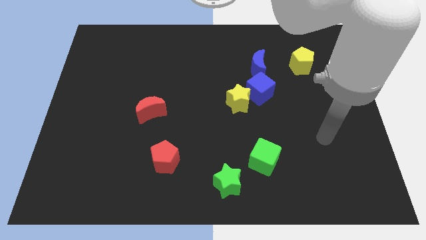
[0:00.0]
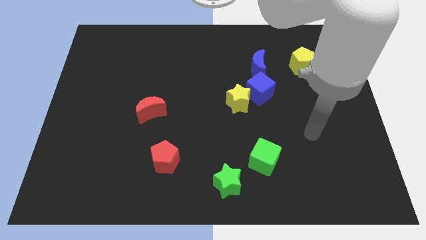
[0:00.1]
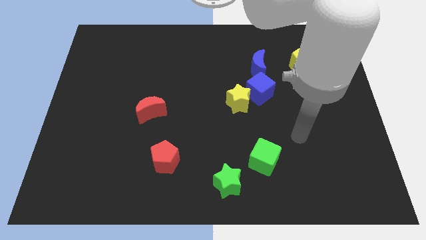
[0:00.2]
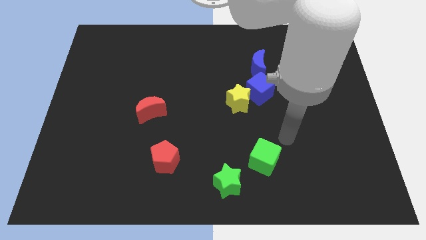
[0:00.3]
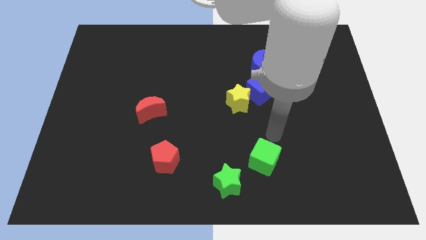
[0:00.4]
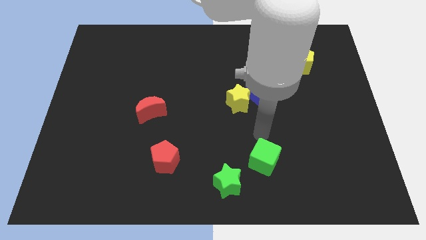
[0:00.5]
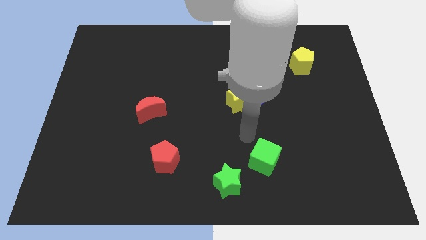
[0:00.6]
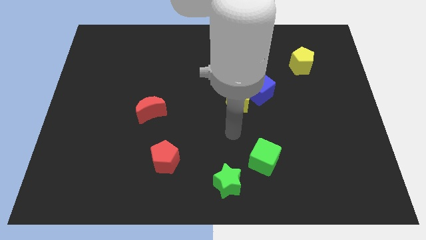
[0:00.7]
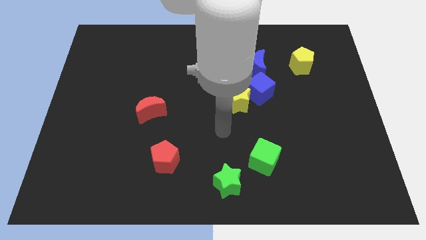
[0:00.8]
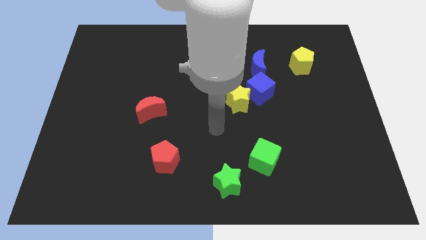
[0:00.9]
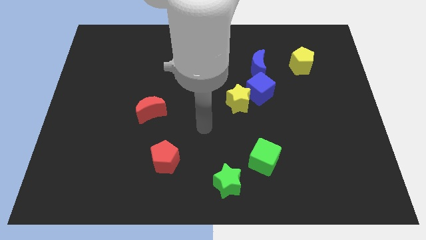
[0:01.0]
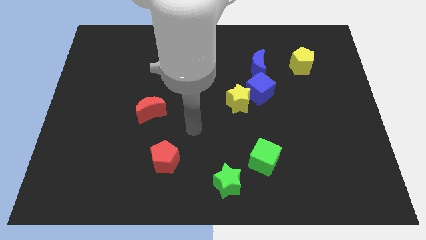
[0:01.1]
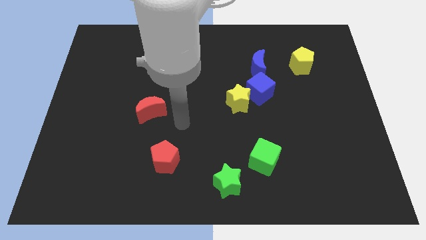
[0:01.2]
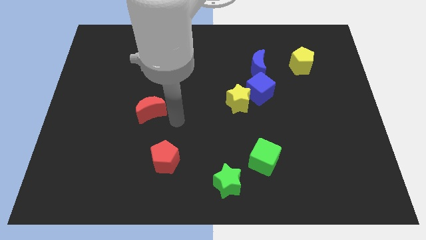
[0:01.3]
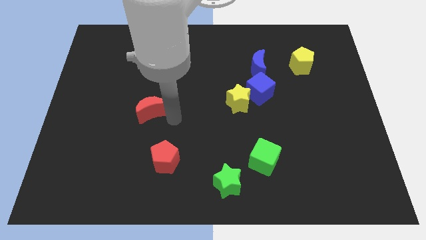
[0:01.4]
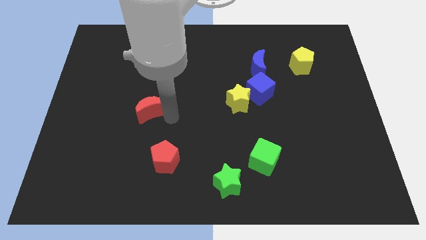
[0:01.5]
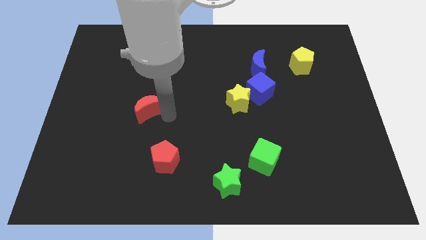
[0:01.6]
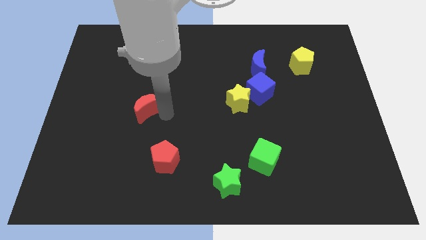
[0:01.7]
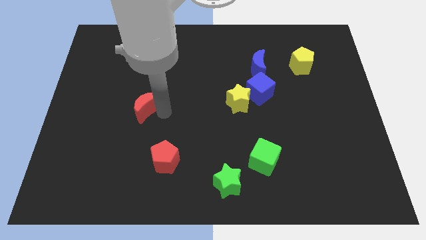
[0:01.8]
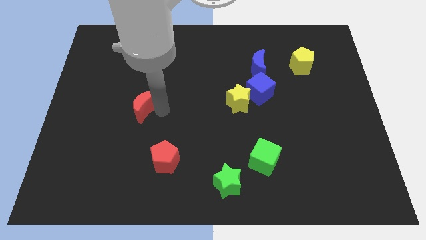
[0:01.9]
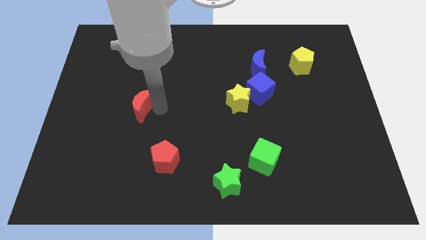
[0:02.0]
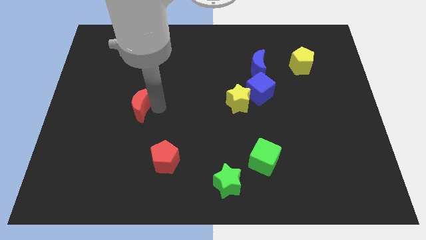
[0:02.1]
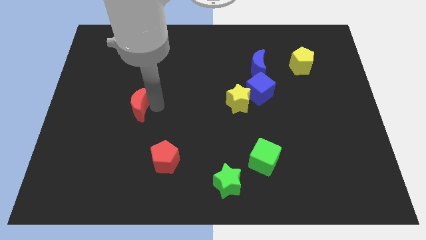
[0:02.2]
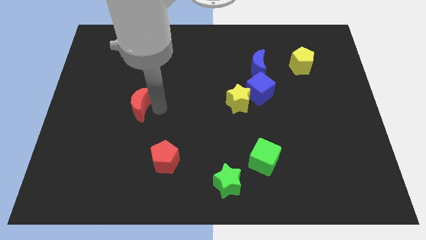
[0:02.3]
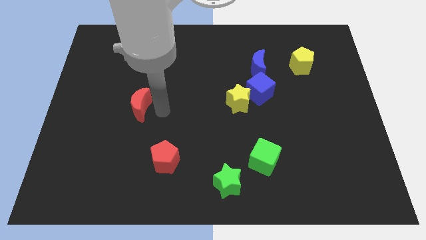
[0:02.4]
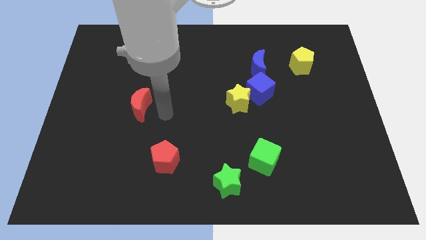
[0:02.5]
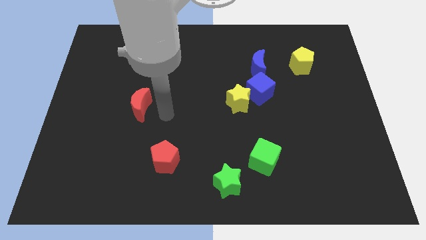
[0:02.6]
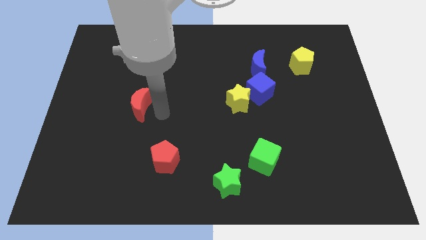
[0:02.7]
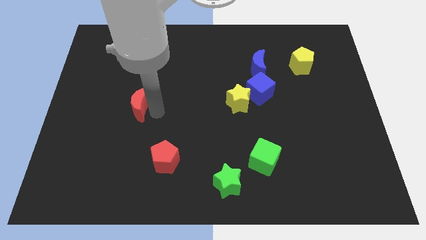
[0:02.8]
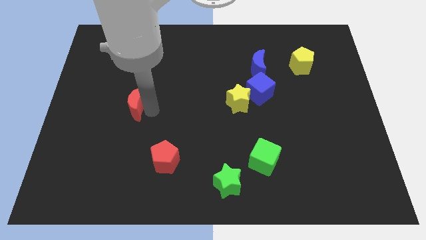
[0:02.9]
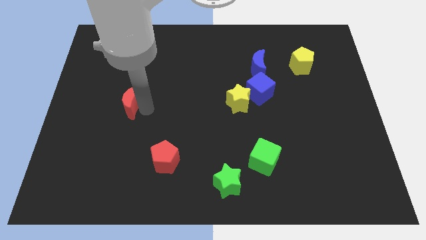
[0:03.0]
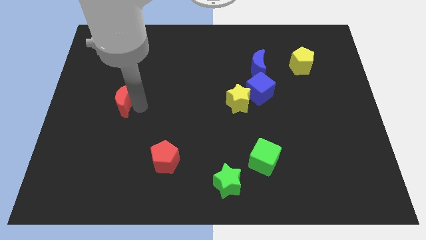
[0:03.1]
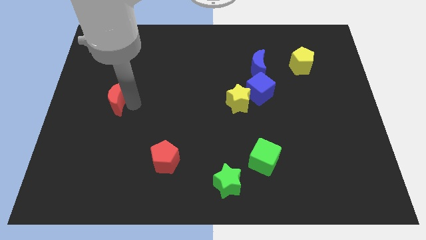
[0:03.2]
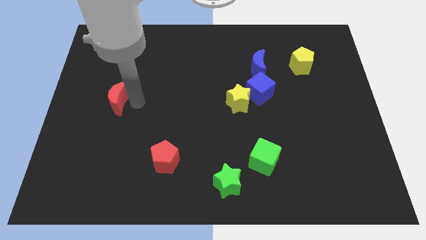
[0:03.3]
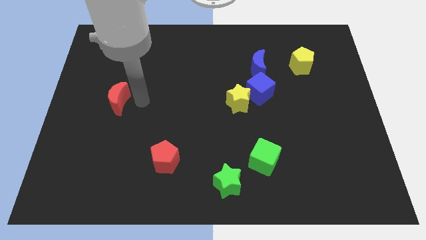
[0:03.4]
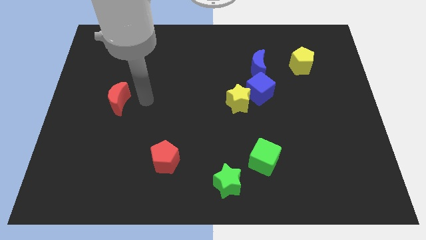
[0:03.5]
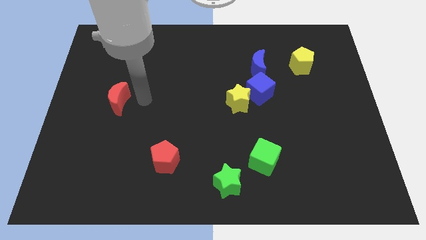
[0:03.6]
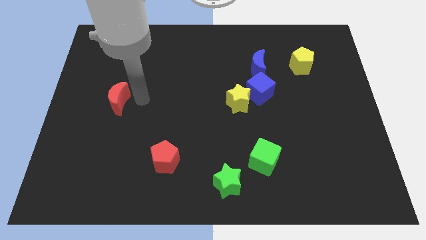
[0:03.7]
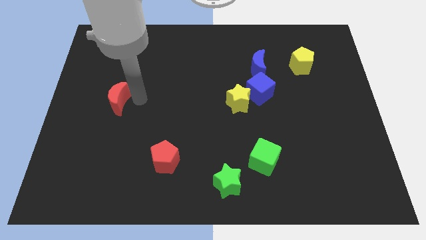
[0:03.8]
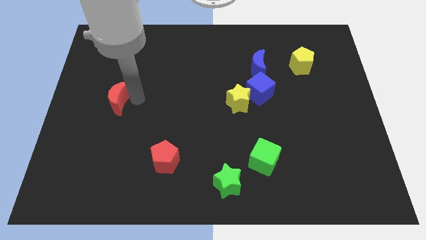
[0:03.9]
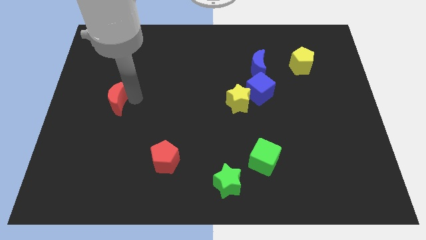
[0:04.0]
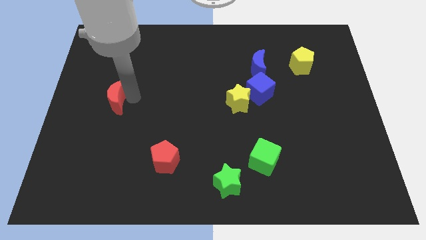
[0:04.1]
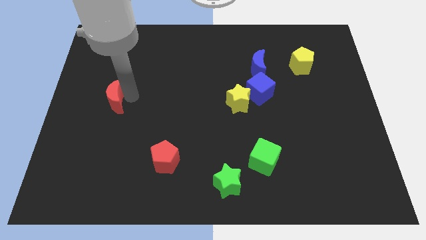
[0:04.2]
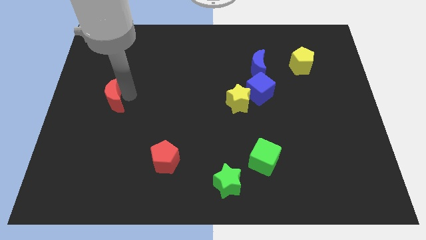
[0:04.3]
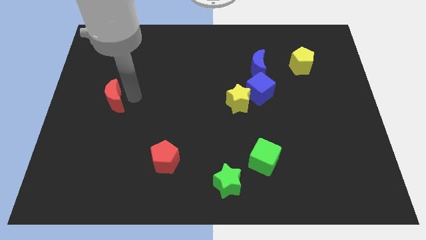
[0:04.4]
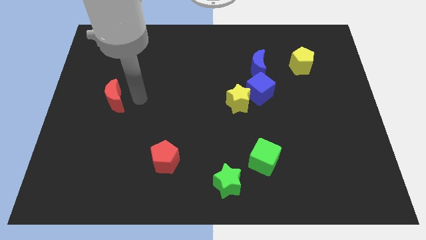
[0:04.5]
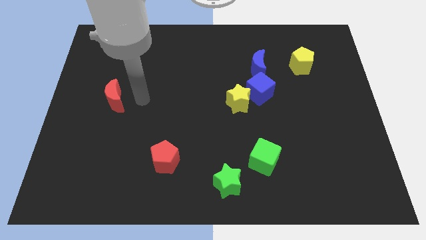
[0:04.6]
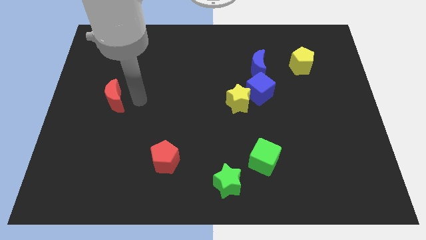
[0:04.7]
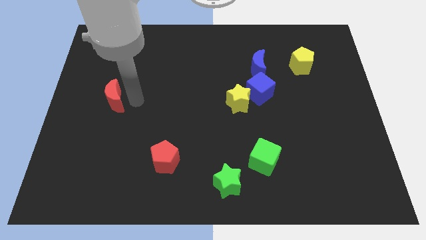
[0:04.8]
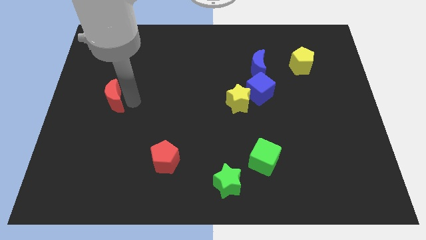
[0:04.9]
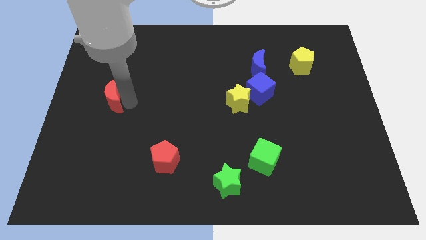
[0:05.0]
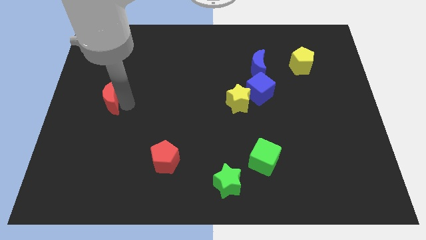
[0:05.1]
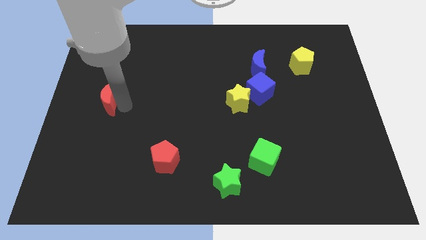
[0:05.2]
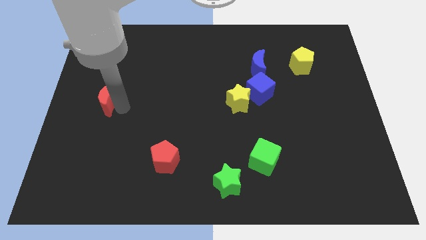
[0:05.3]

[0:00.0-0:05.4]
push the red moon to the center left
